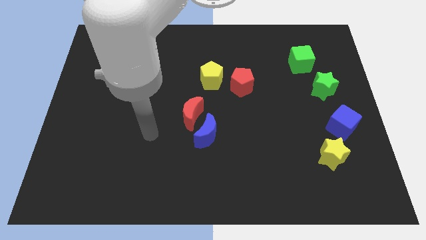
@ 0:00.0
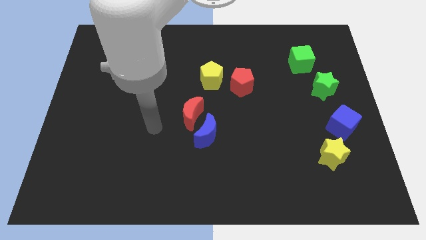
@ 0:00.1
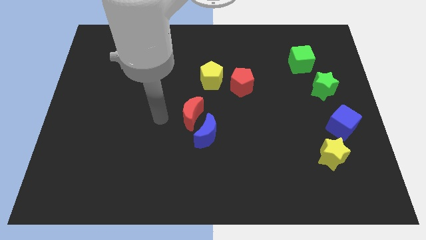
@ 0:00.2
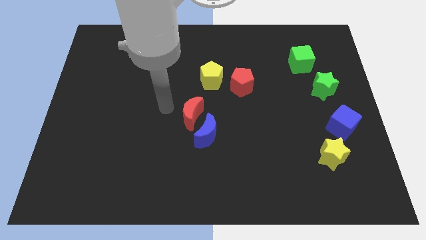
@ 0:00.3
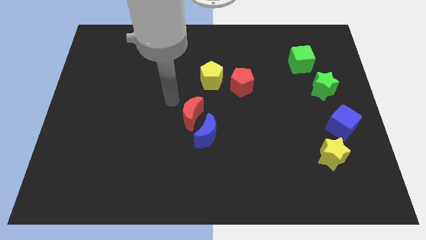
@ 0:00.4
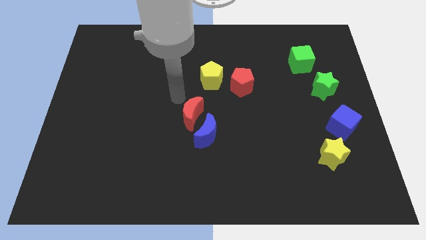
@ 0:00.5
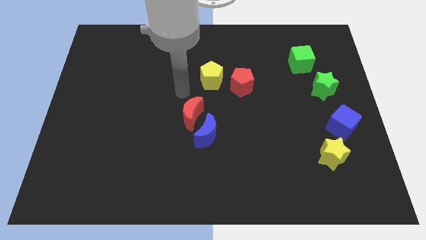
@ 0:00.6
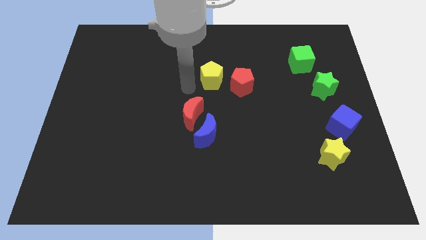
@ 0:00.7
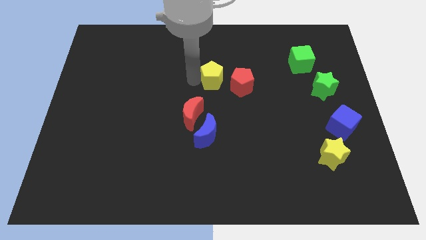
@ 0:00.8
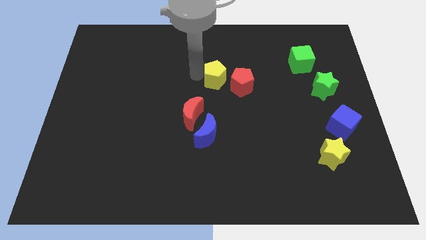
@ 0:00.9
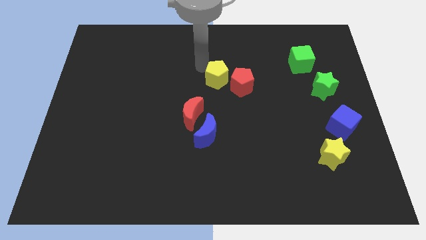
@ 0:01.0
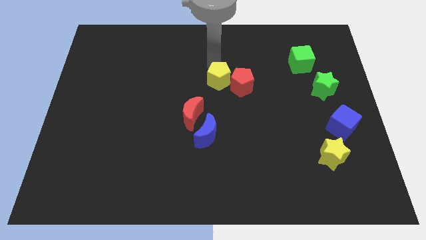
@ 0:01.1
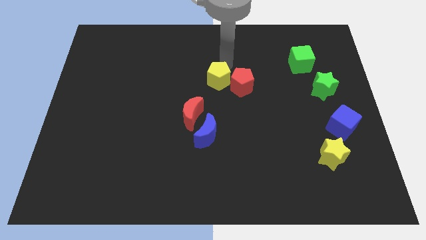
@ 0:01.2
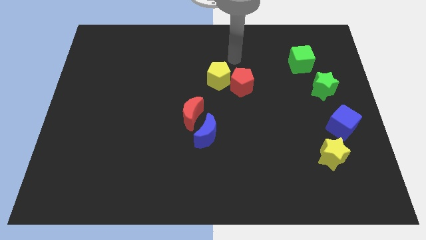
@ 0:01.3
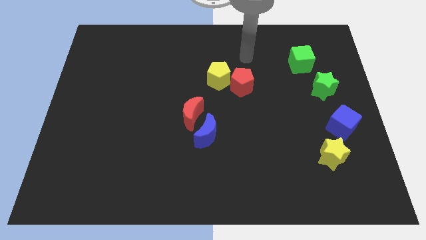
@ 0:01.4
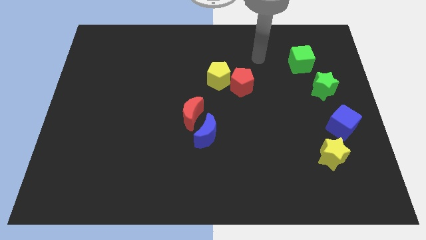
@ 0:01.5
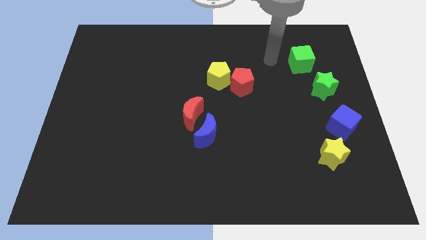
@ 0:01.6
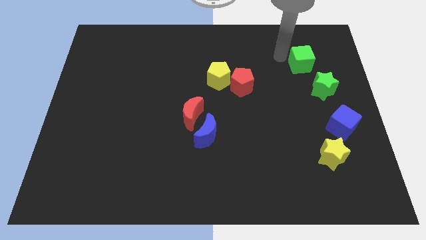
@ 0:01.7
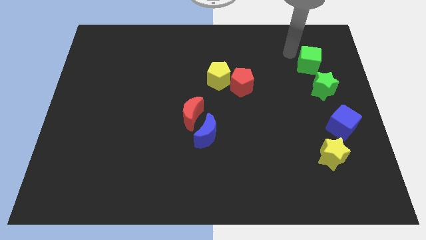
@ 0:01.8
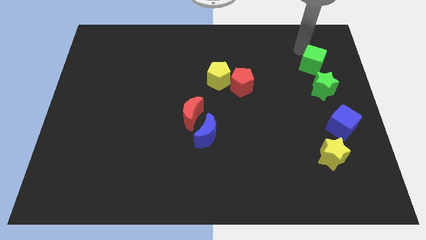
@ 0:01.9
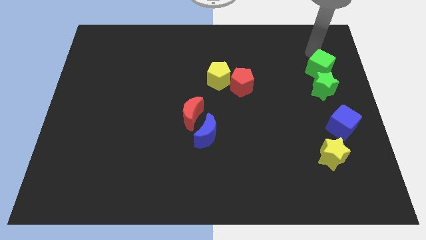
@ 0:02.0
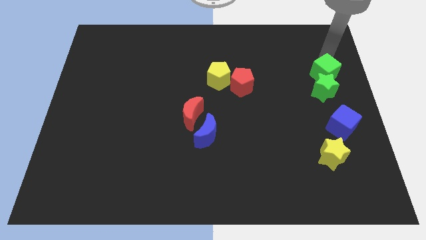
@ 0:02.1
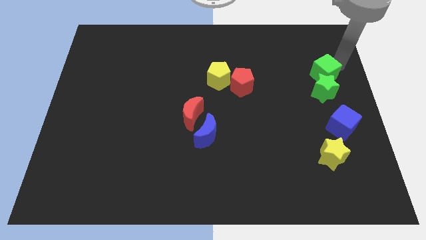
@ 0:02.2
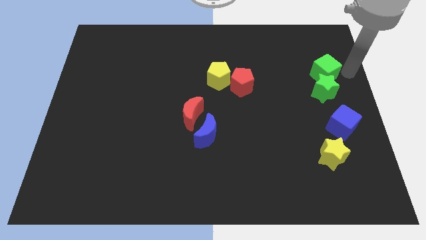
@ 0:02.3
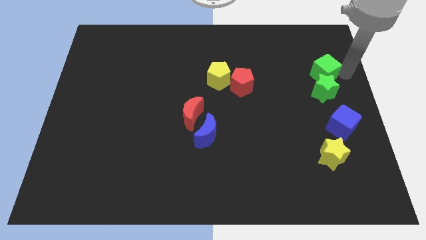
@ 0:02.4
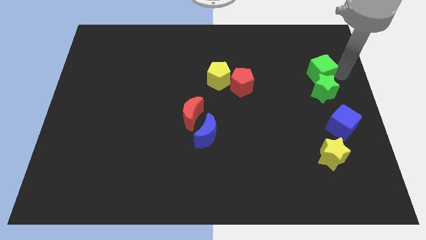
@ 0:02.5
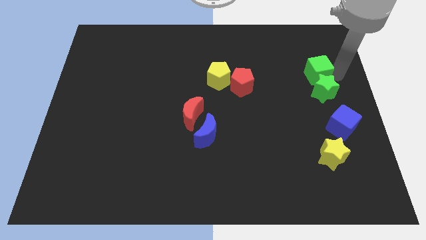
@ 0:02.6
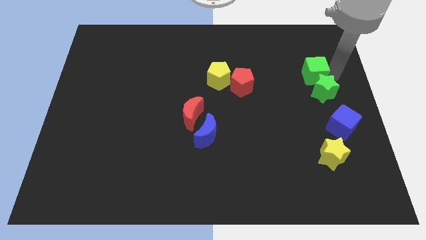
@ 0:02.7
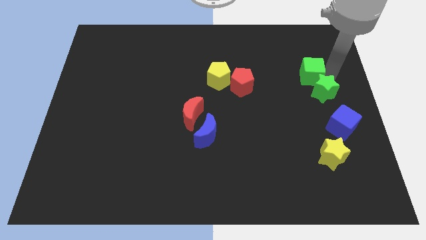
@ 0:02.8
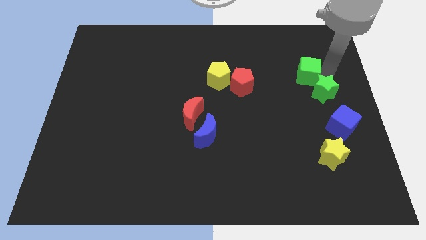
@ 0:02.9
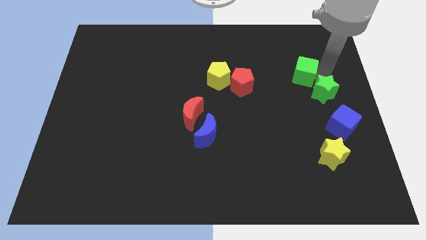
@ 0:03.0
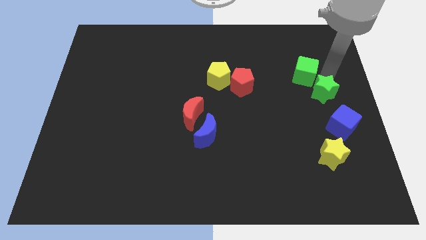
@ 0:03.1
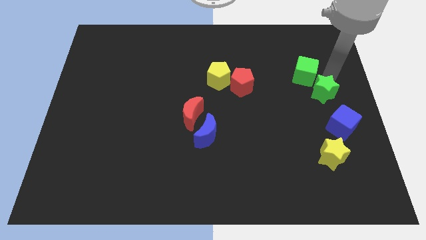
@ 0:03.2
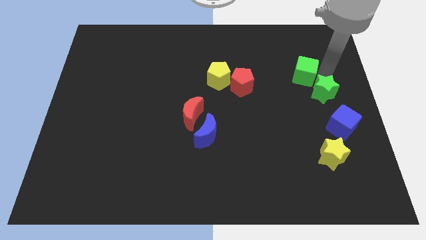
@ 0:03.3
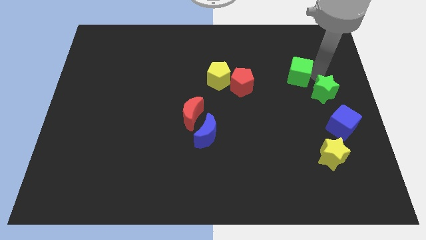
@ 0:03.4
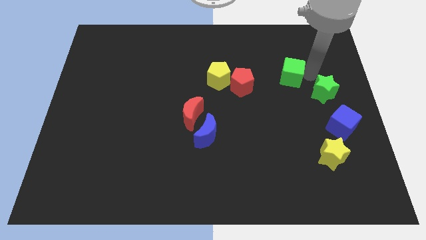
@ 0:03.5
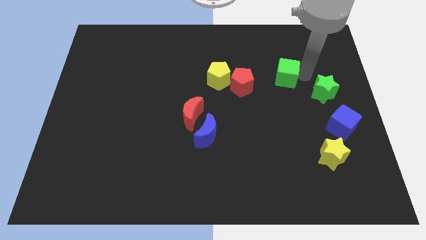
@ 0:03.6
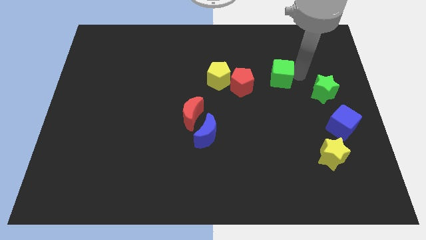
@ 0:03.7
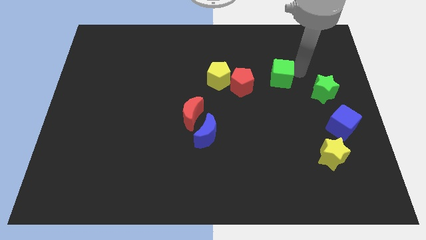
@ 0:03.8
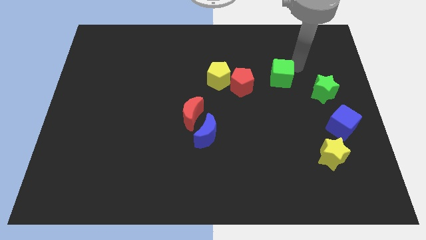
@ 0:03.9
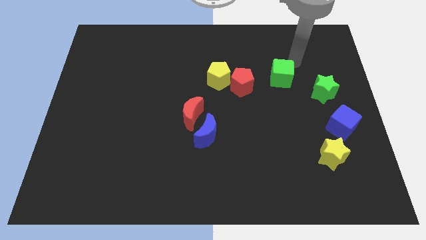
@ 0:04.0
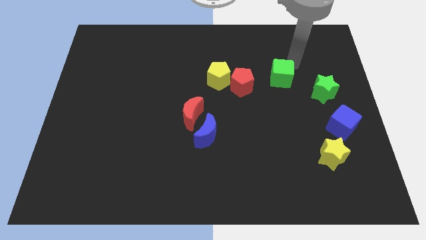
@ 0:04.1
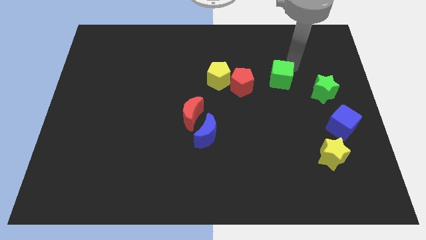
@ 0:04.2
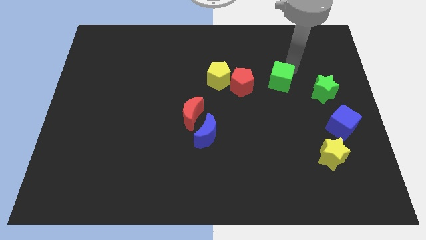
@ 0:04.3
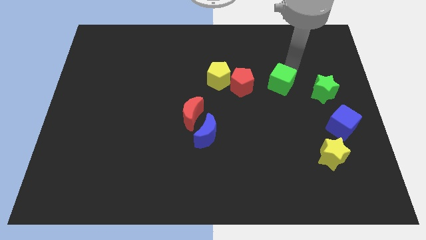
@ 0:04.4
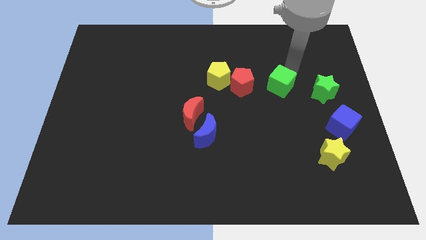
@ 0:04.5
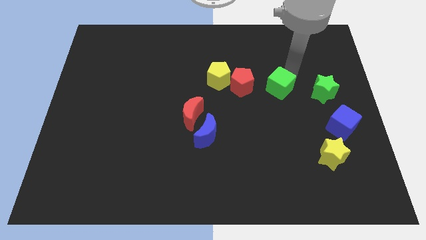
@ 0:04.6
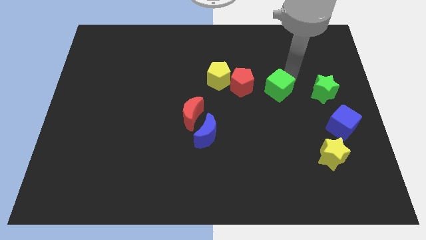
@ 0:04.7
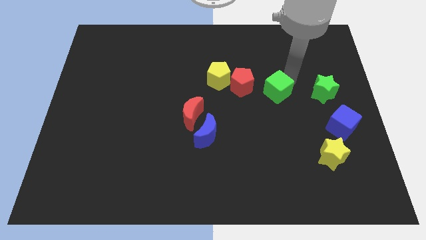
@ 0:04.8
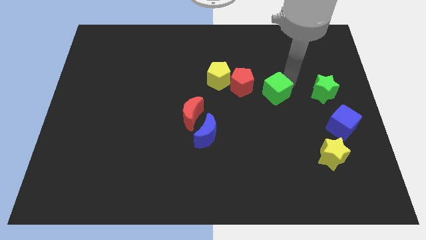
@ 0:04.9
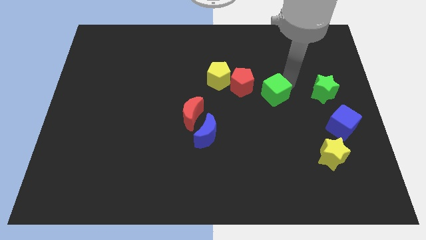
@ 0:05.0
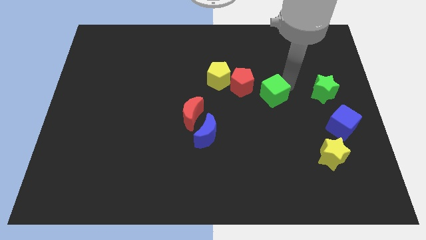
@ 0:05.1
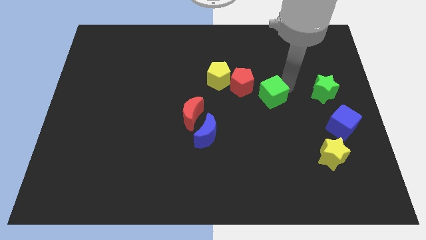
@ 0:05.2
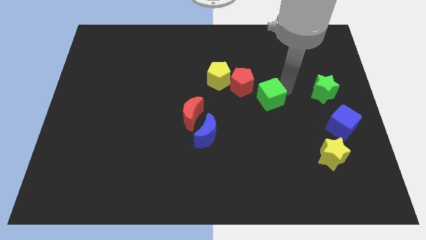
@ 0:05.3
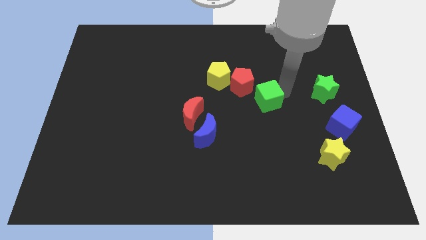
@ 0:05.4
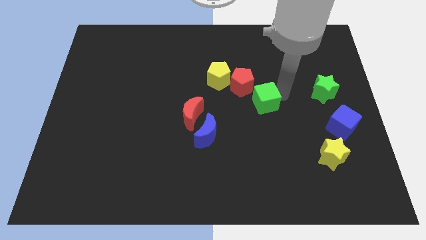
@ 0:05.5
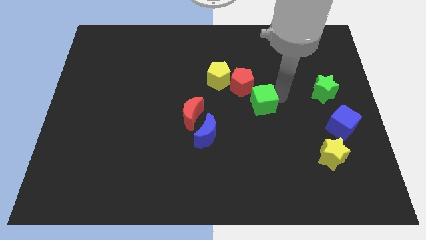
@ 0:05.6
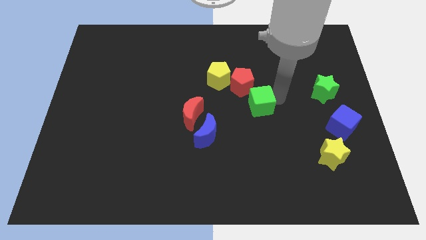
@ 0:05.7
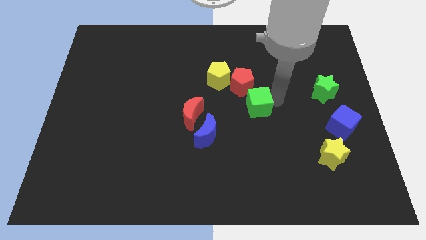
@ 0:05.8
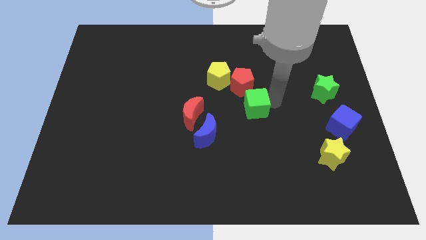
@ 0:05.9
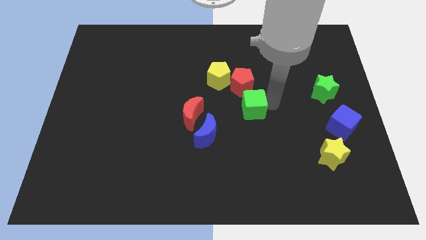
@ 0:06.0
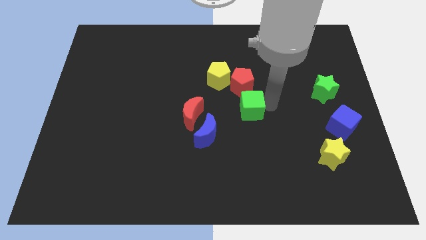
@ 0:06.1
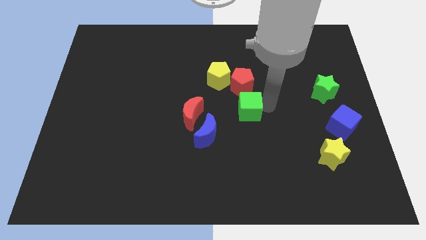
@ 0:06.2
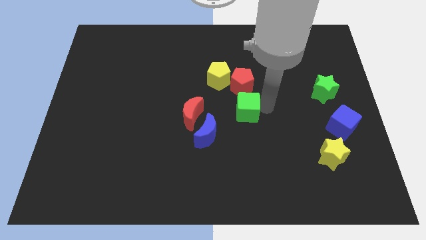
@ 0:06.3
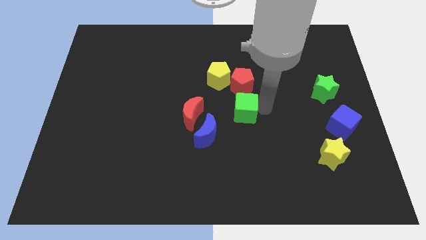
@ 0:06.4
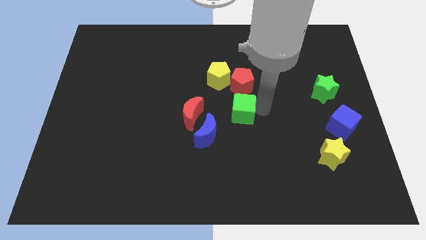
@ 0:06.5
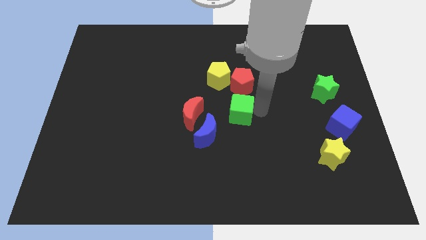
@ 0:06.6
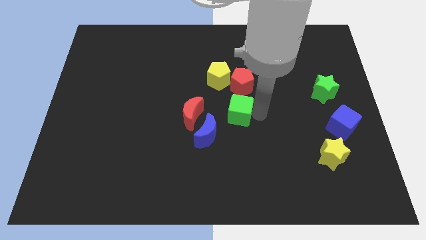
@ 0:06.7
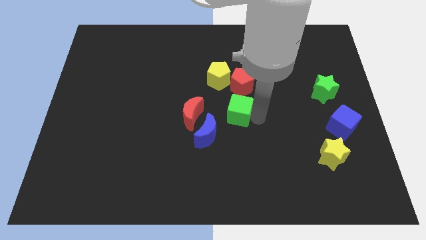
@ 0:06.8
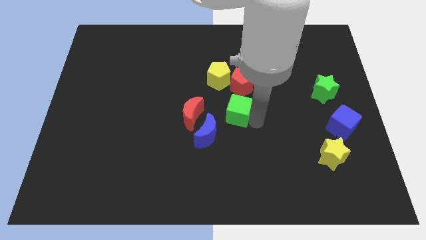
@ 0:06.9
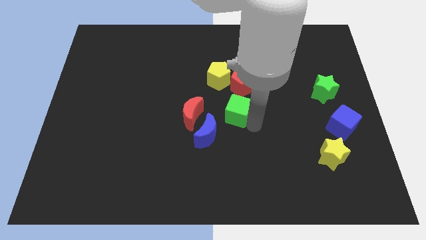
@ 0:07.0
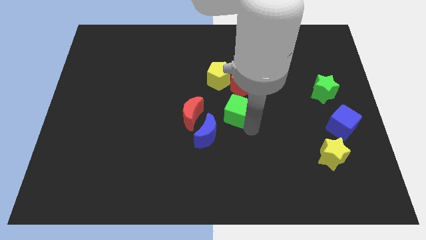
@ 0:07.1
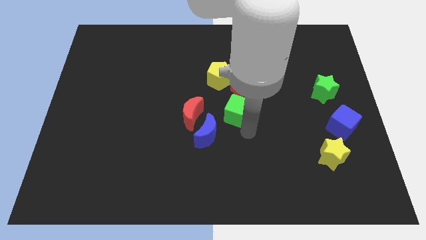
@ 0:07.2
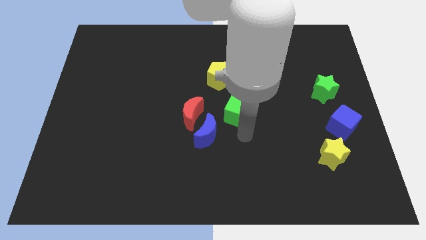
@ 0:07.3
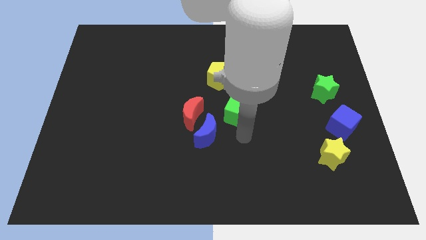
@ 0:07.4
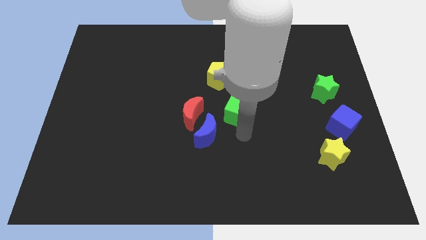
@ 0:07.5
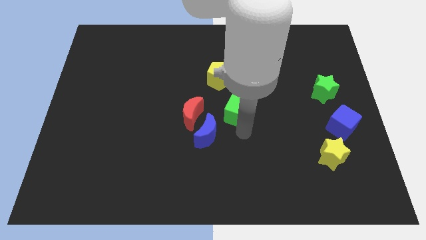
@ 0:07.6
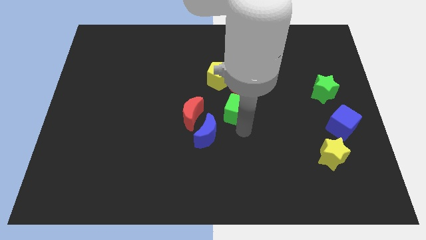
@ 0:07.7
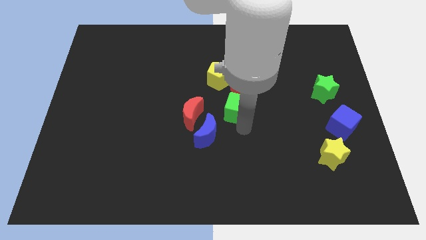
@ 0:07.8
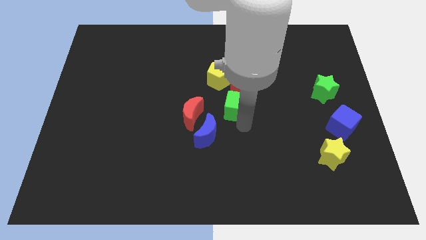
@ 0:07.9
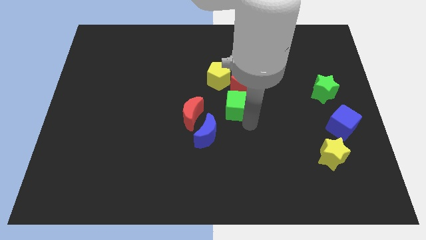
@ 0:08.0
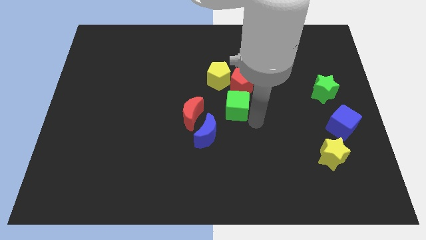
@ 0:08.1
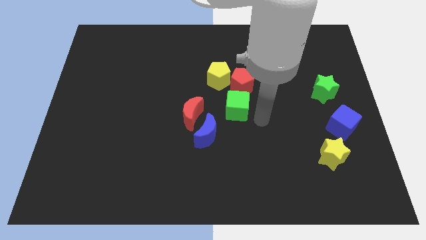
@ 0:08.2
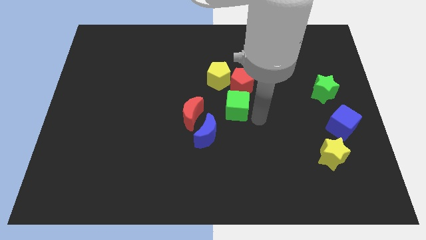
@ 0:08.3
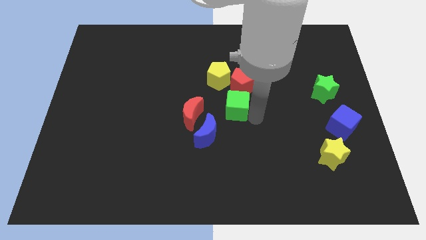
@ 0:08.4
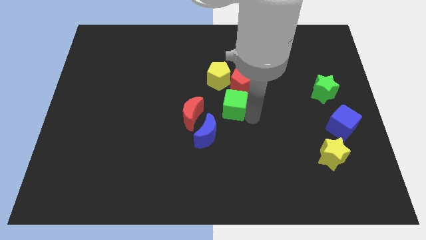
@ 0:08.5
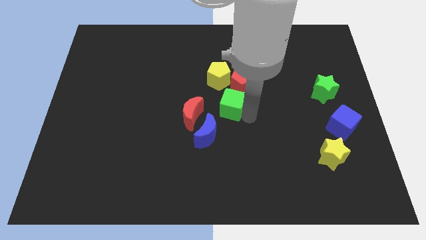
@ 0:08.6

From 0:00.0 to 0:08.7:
move the green cube to the top right side of the red moon
